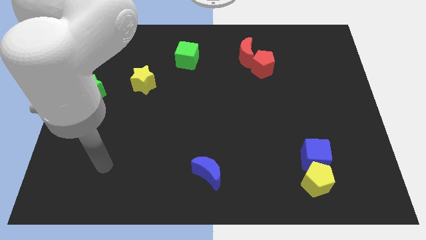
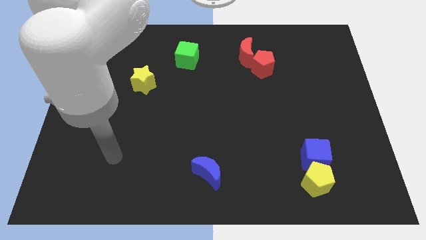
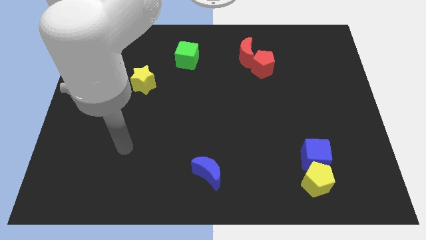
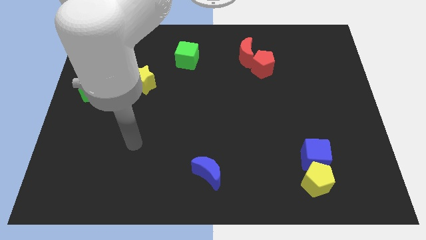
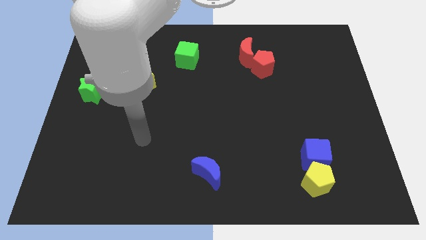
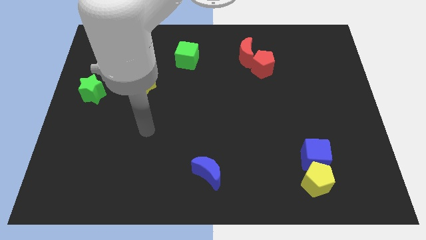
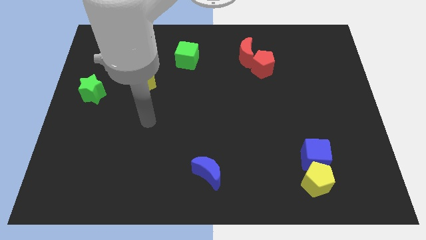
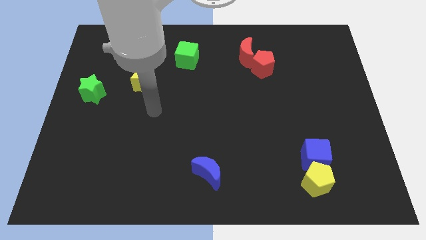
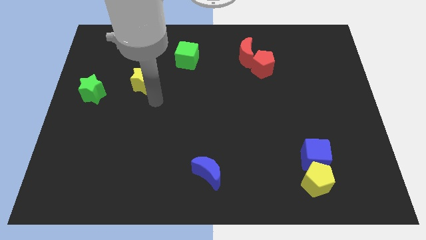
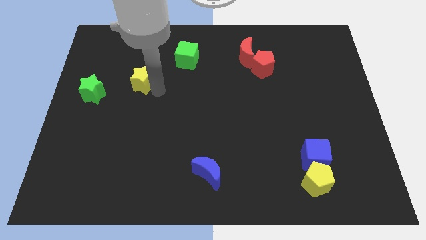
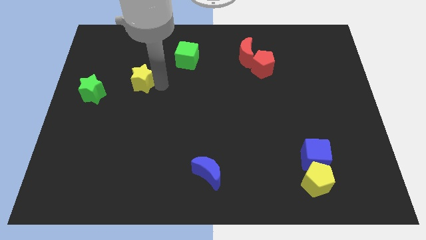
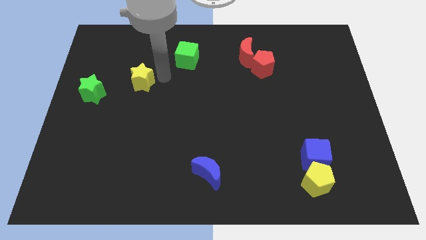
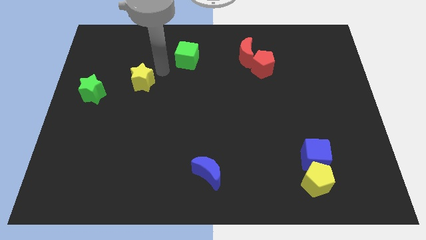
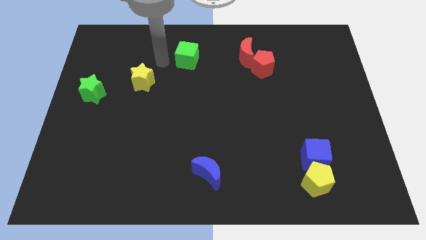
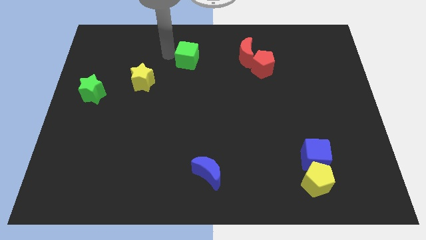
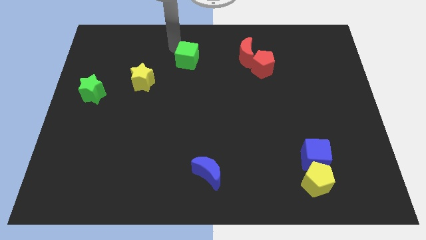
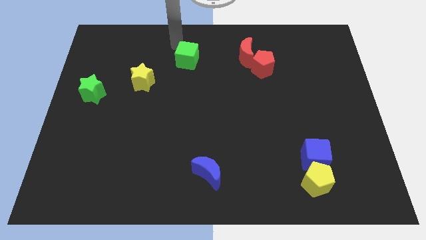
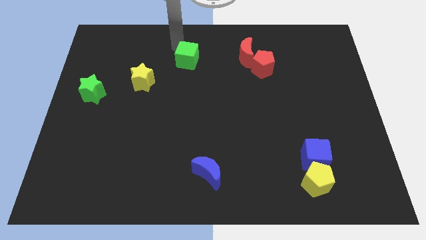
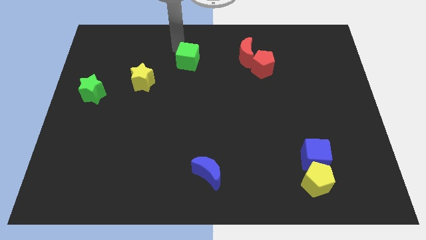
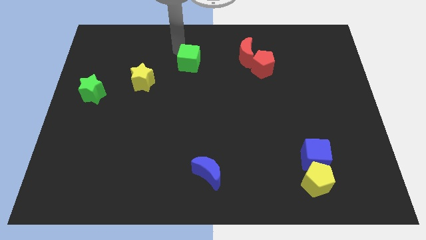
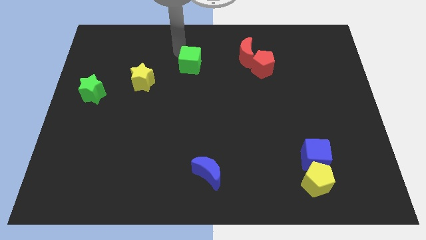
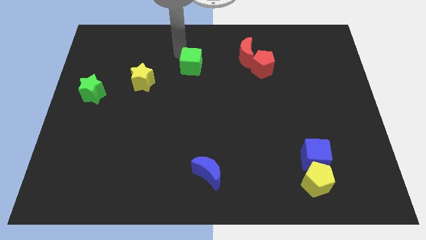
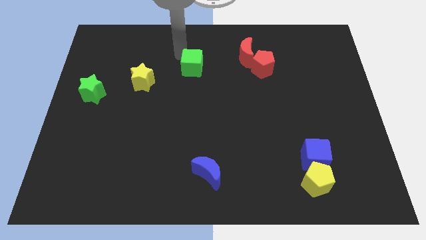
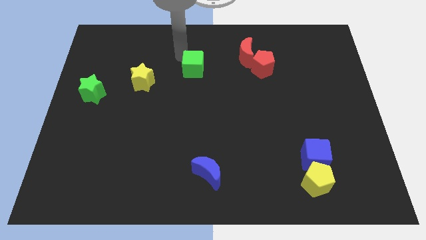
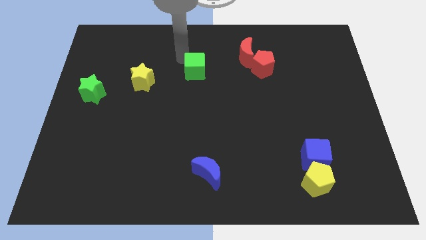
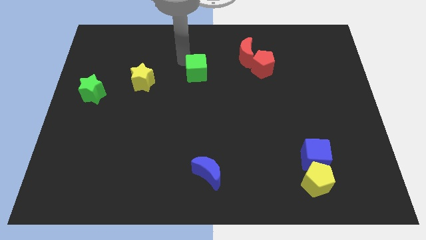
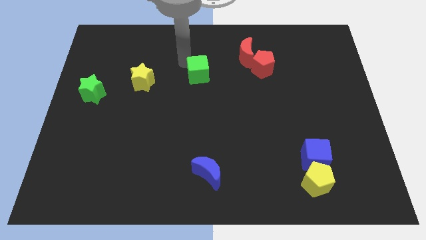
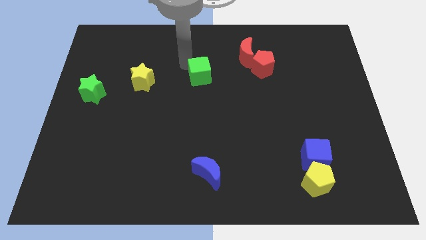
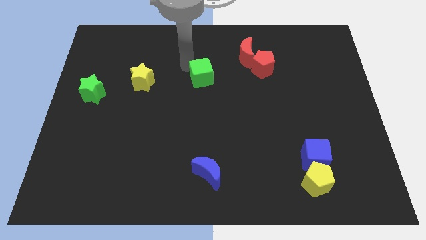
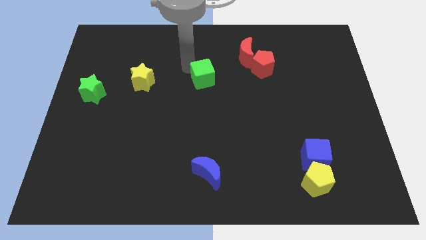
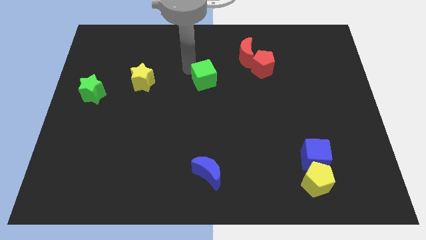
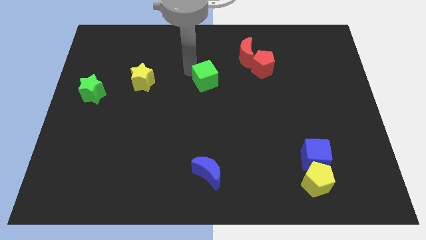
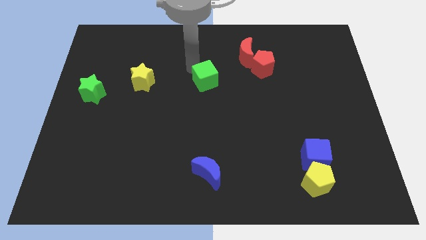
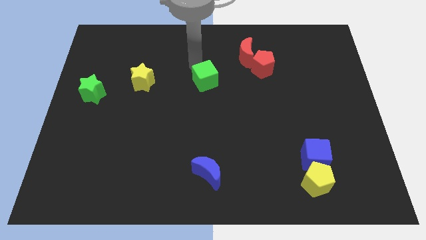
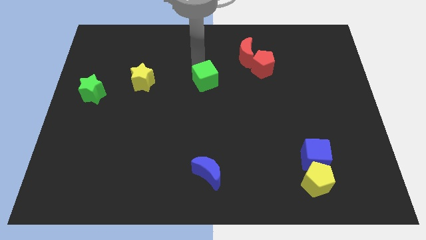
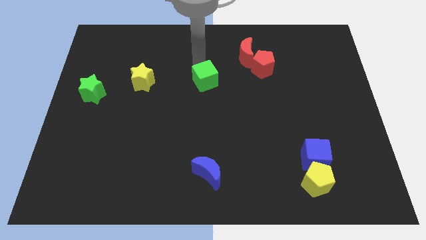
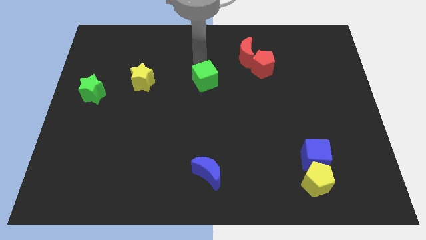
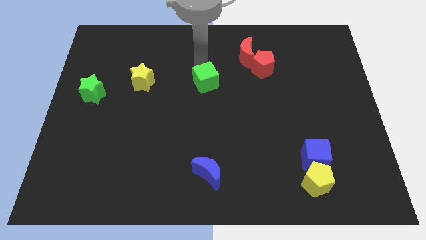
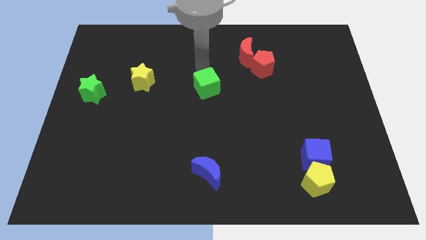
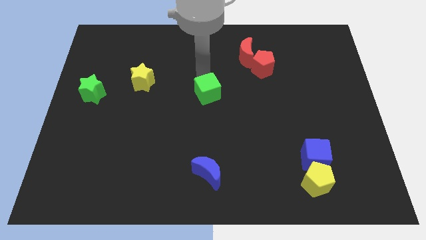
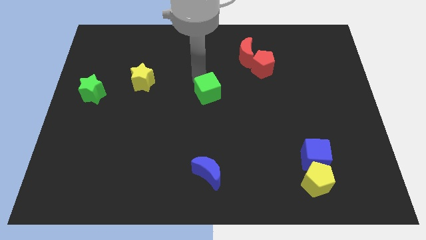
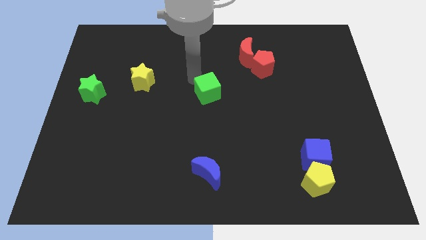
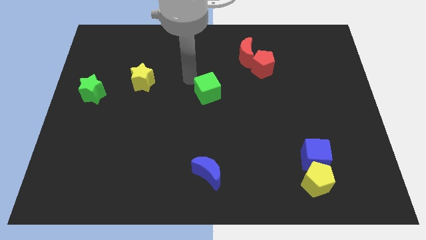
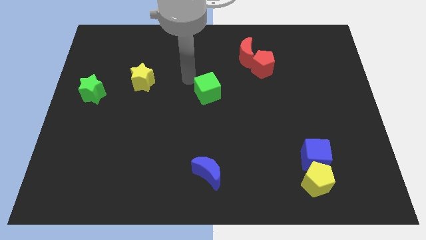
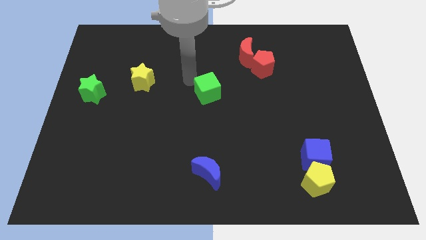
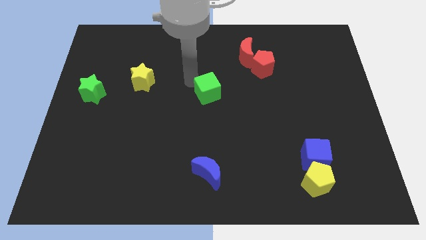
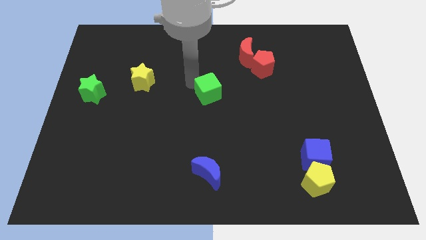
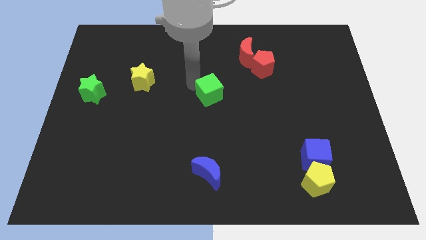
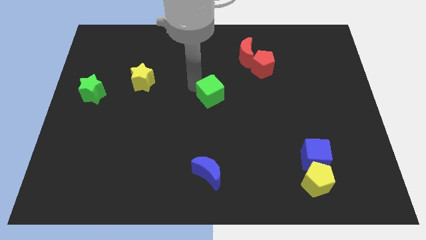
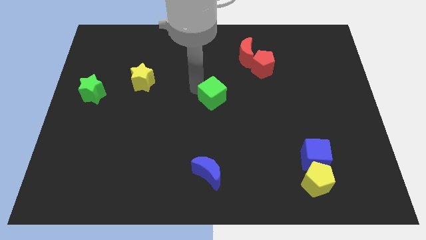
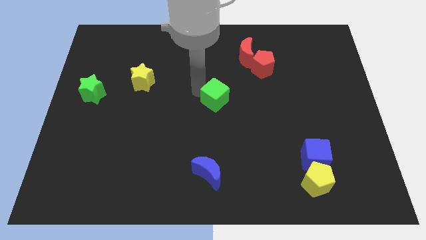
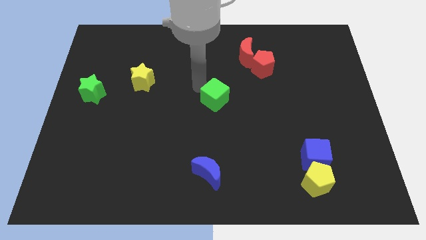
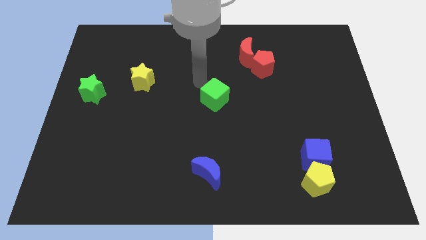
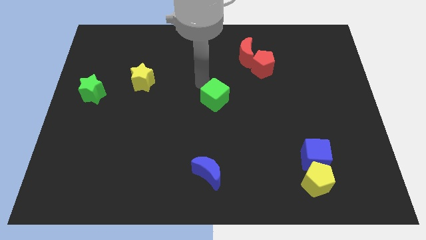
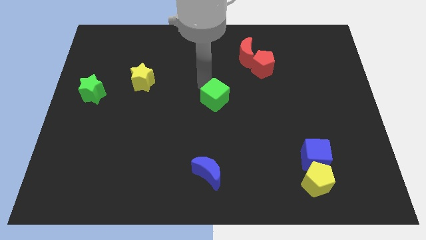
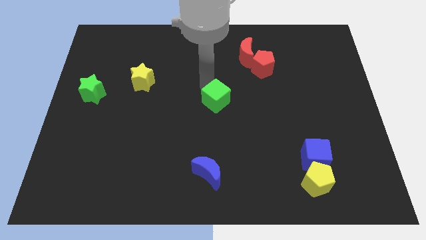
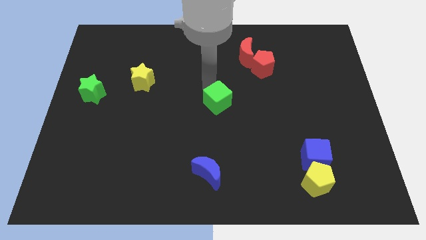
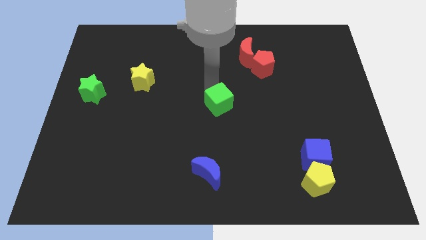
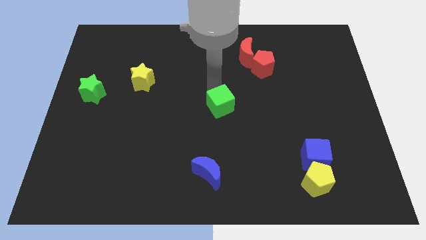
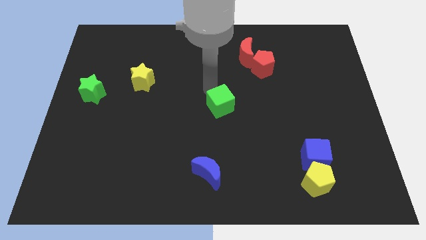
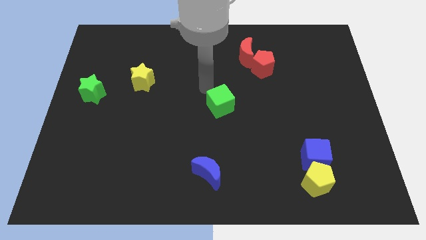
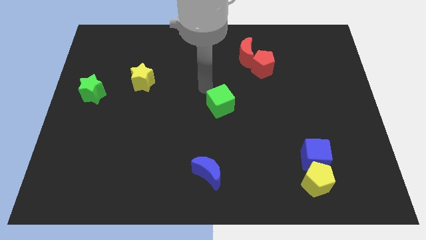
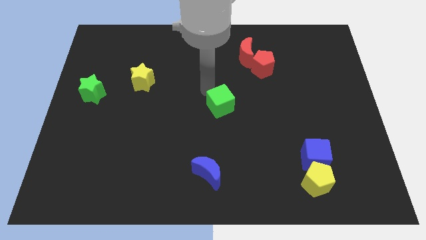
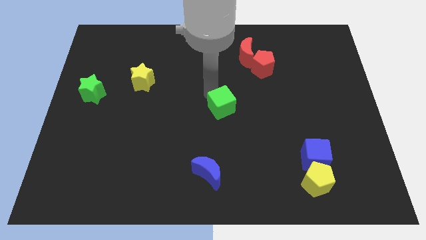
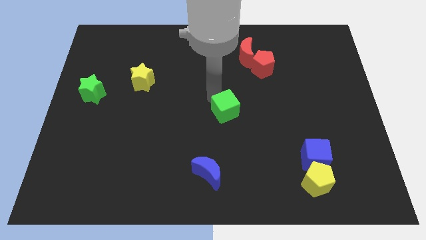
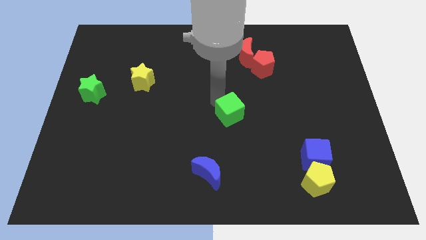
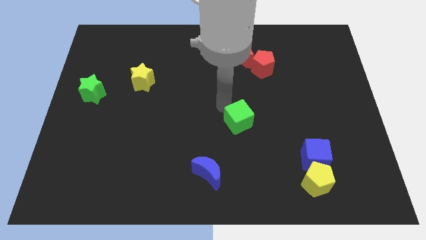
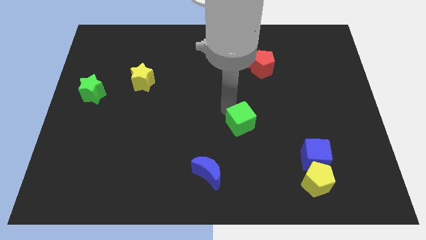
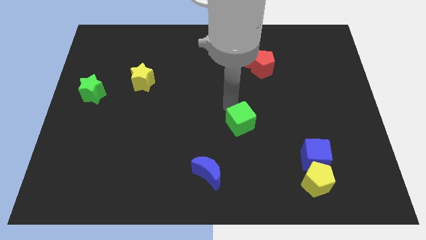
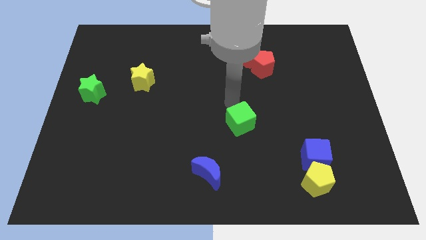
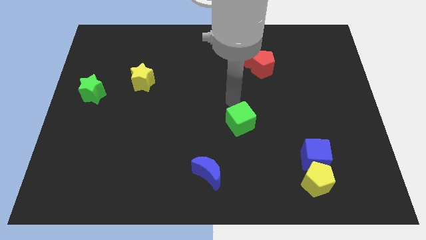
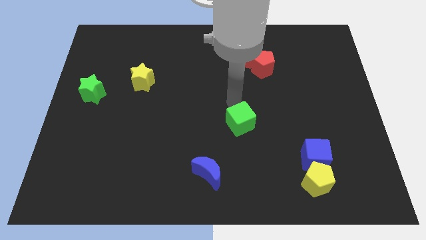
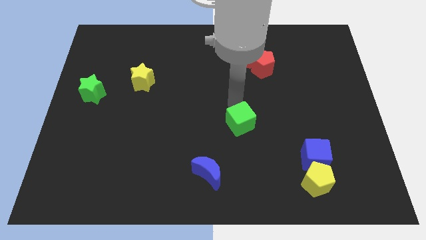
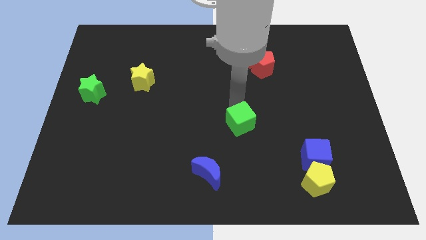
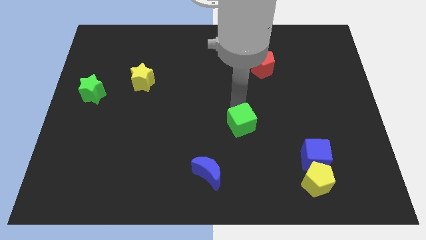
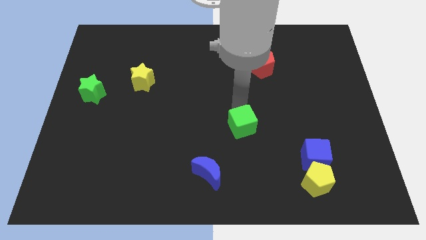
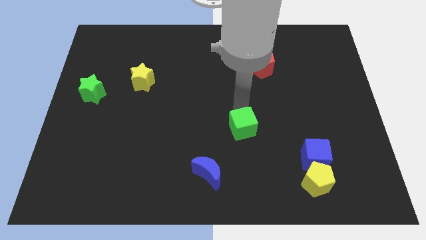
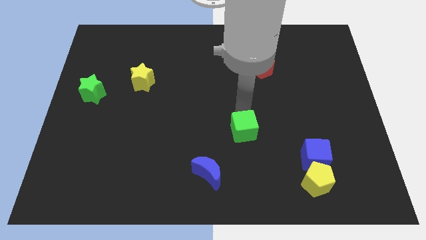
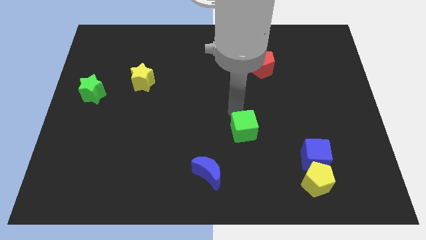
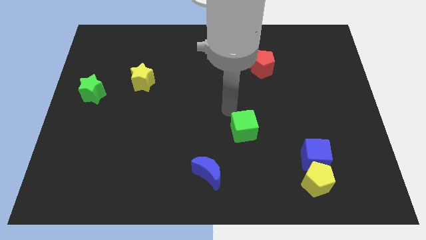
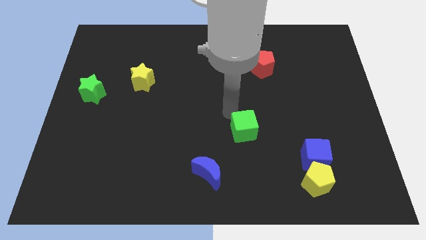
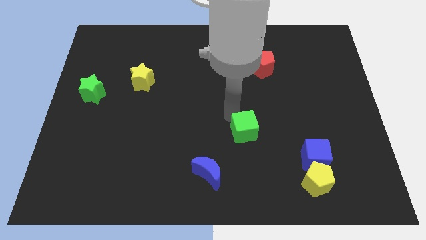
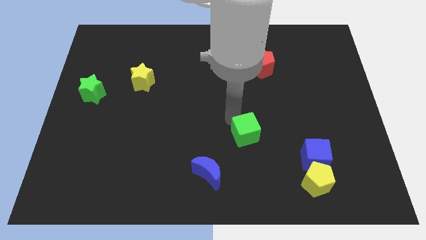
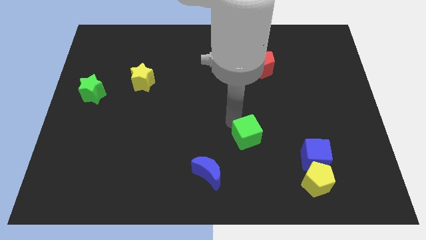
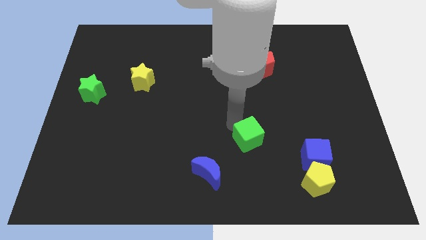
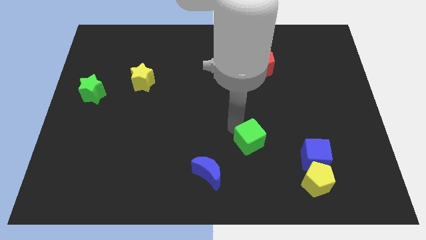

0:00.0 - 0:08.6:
push the green cube to the left of the blue cube
